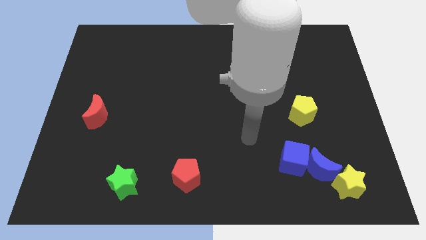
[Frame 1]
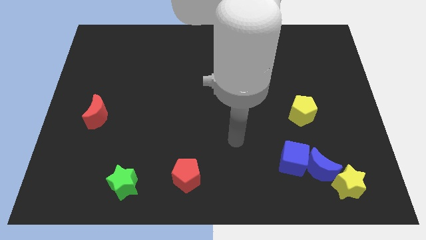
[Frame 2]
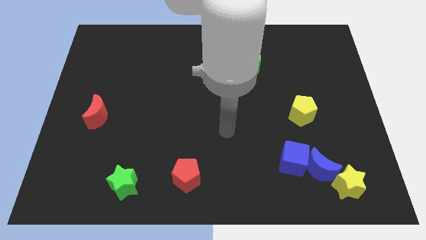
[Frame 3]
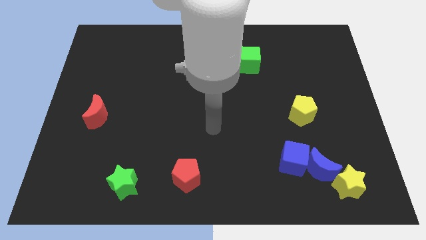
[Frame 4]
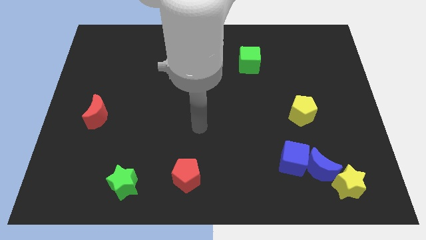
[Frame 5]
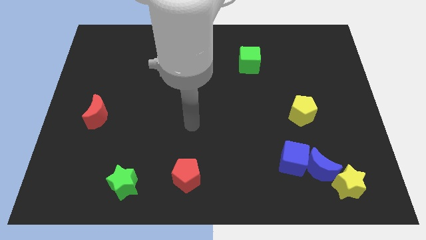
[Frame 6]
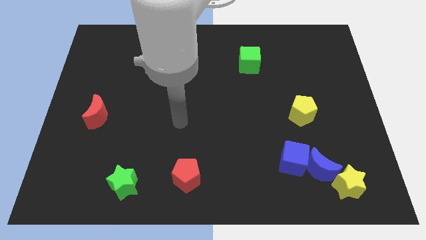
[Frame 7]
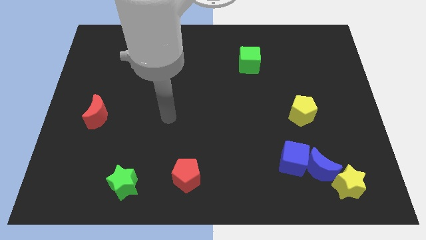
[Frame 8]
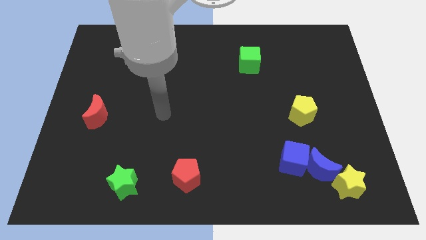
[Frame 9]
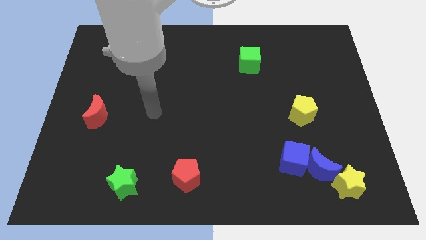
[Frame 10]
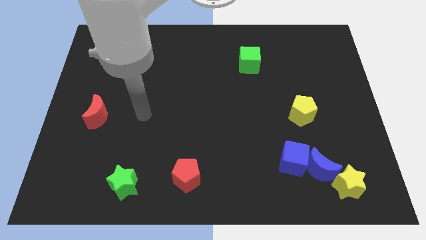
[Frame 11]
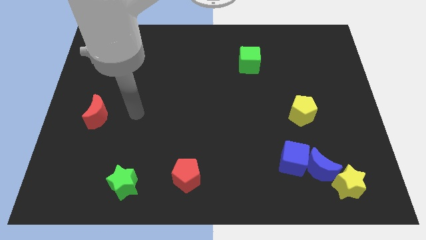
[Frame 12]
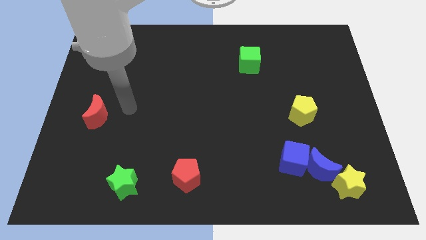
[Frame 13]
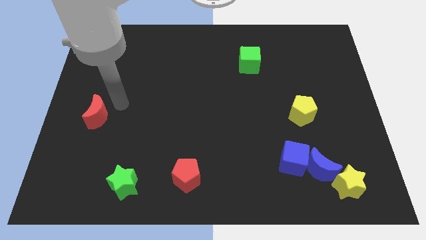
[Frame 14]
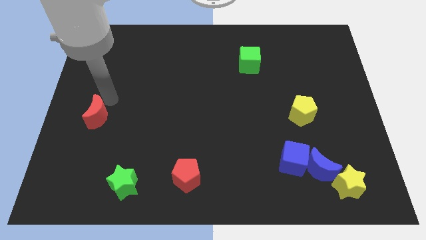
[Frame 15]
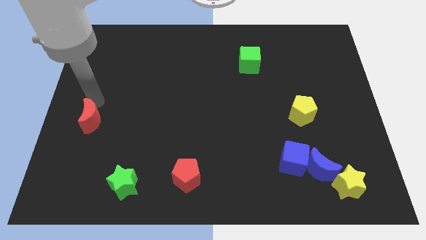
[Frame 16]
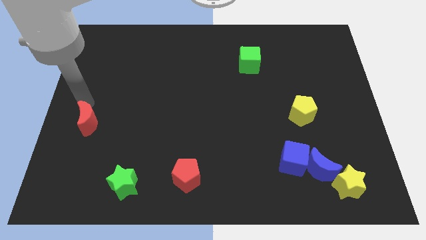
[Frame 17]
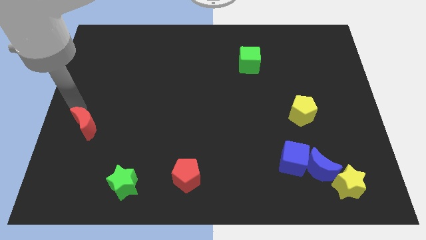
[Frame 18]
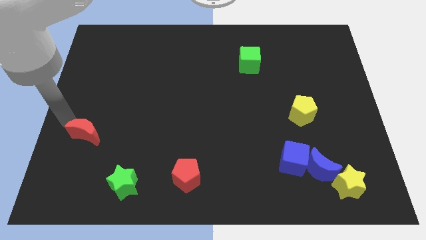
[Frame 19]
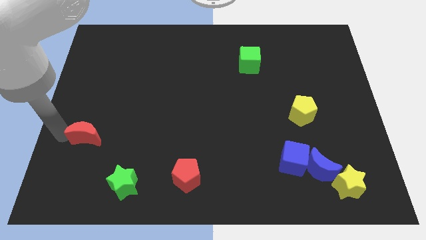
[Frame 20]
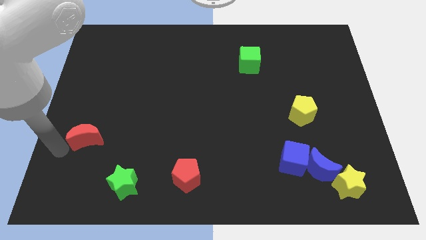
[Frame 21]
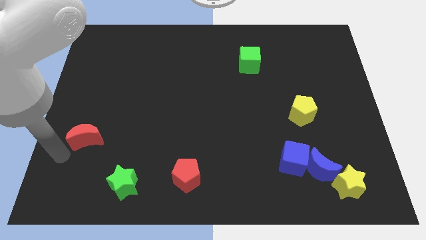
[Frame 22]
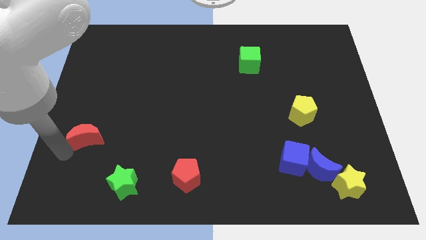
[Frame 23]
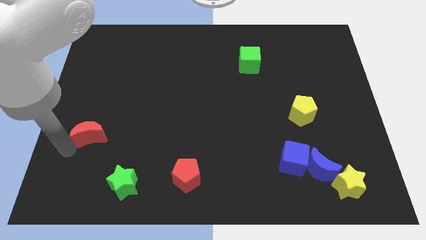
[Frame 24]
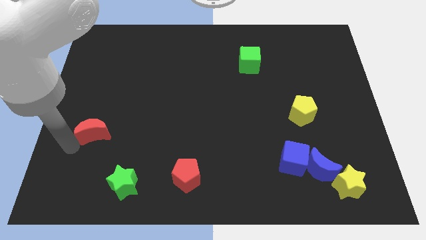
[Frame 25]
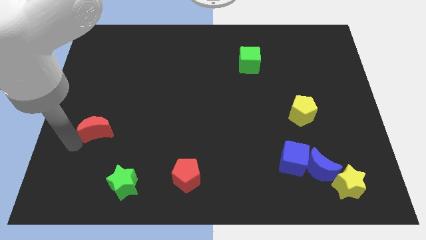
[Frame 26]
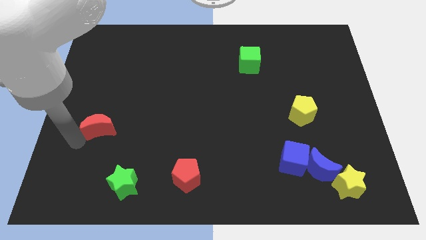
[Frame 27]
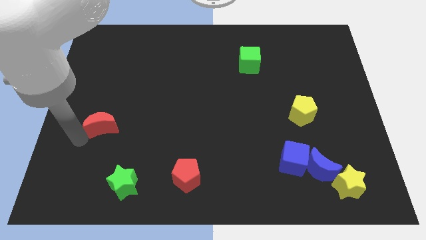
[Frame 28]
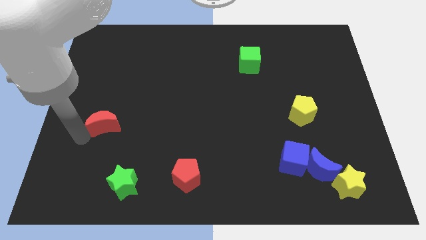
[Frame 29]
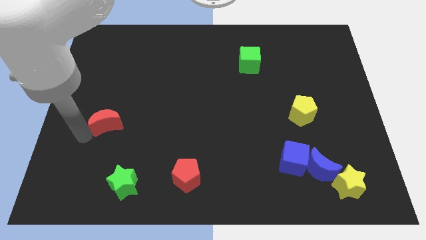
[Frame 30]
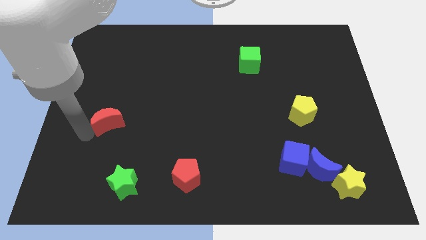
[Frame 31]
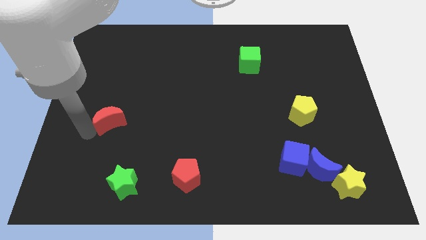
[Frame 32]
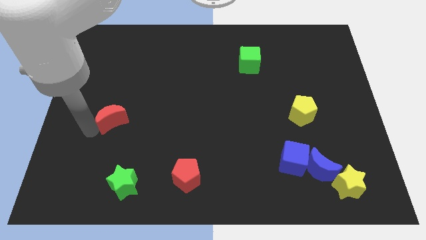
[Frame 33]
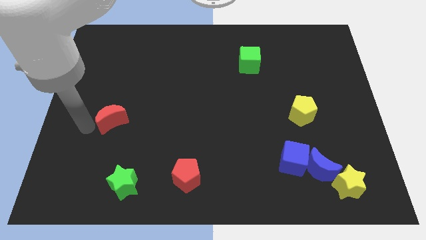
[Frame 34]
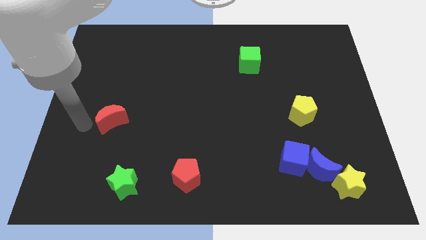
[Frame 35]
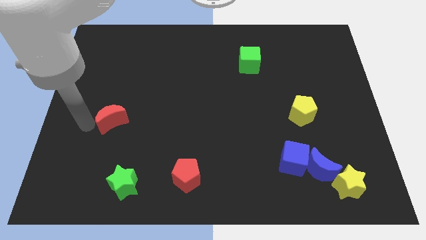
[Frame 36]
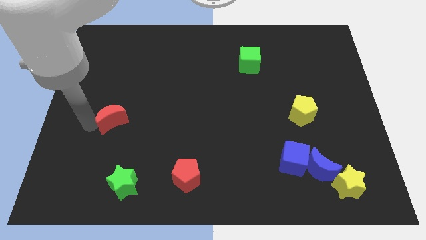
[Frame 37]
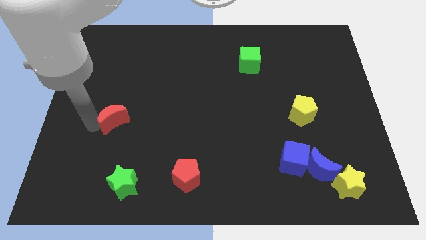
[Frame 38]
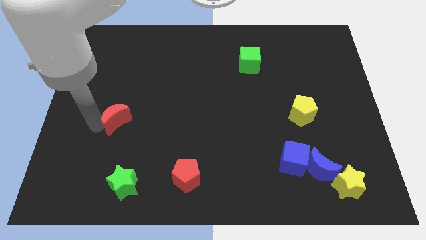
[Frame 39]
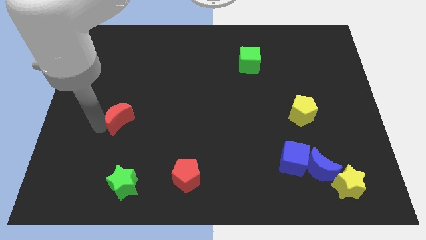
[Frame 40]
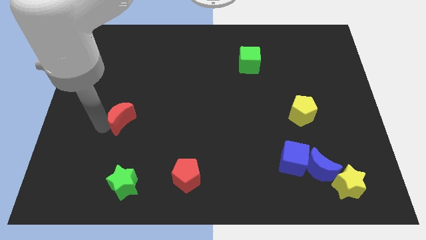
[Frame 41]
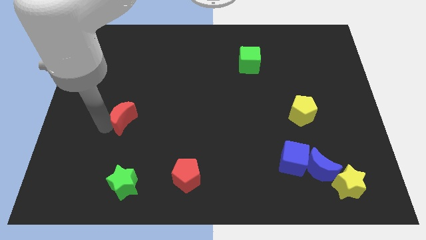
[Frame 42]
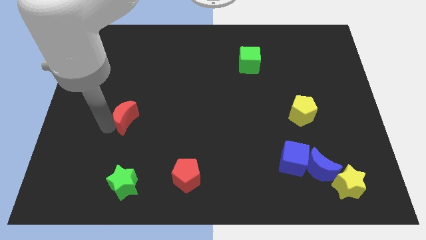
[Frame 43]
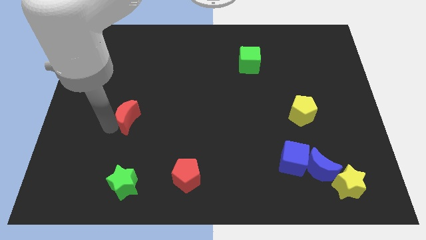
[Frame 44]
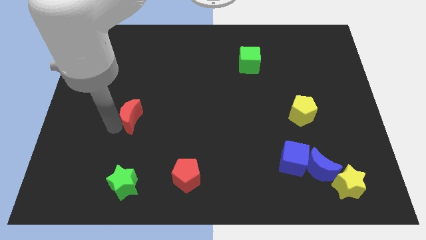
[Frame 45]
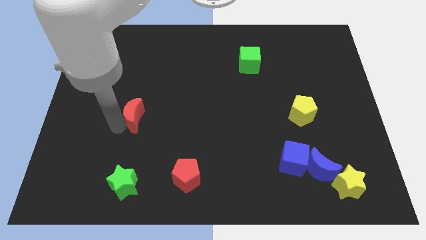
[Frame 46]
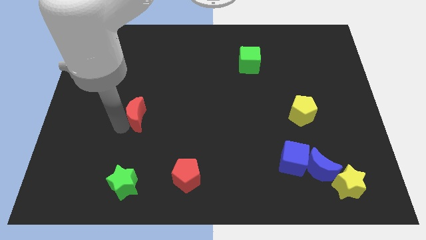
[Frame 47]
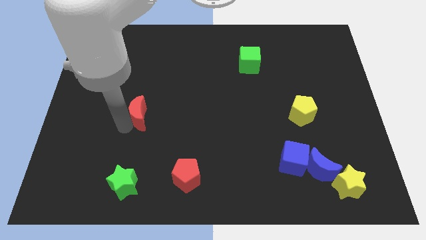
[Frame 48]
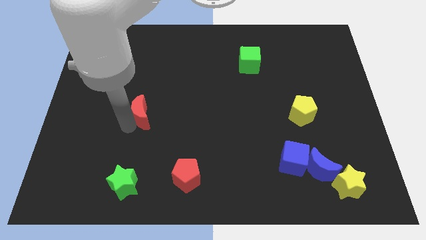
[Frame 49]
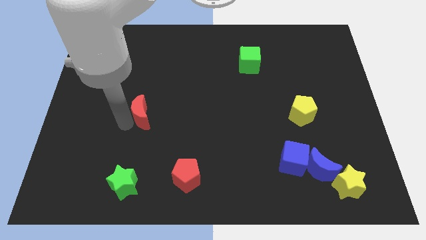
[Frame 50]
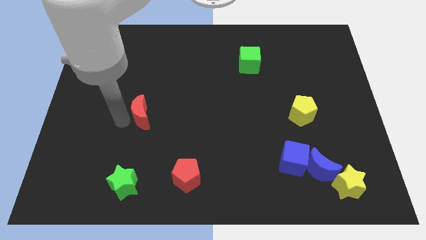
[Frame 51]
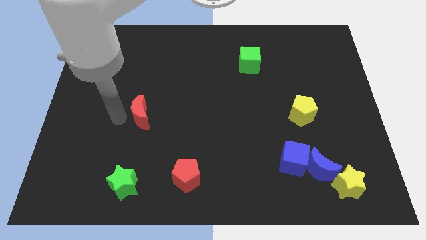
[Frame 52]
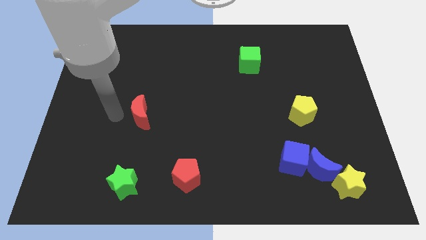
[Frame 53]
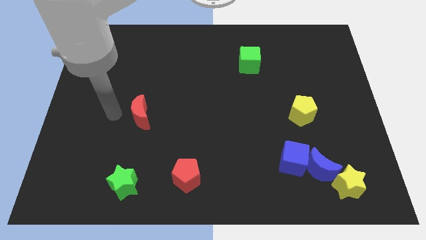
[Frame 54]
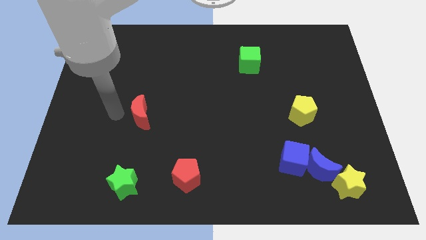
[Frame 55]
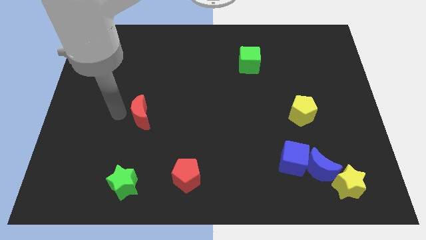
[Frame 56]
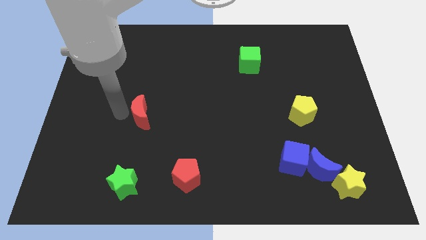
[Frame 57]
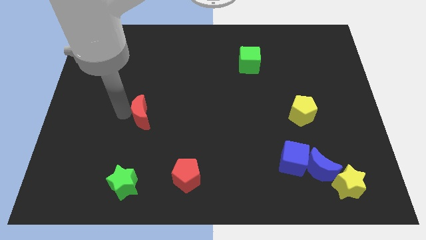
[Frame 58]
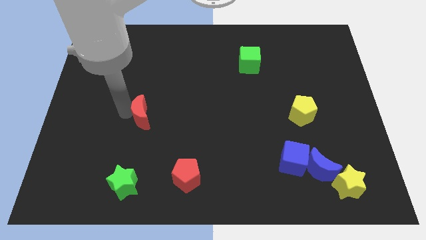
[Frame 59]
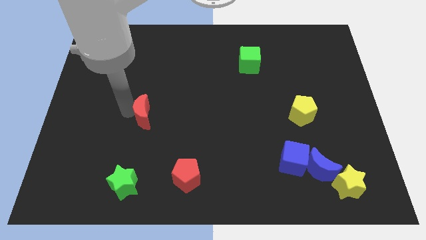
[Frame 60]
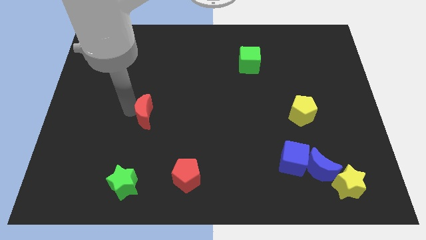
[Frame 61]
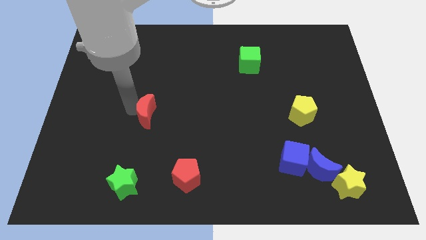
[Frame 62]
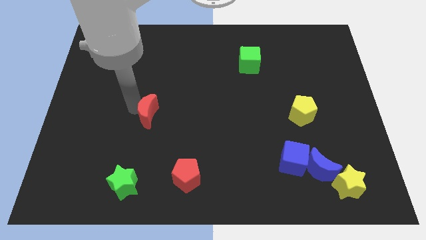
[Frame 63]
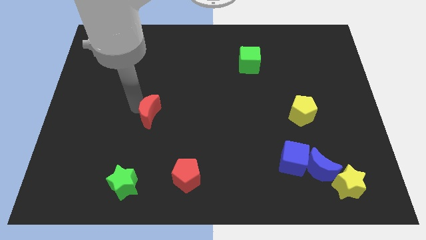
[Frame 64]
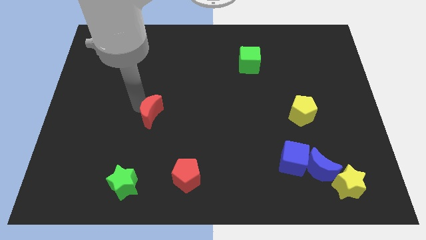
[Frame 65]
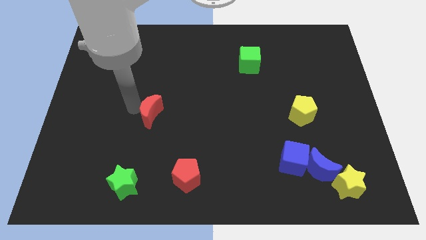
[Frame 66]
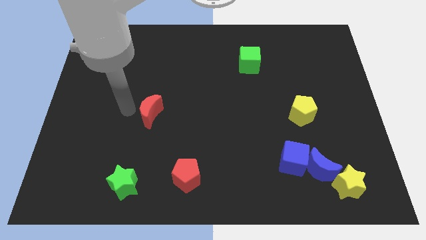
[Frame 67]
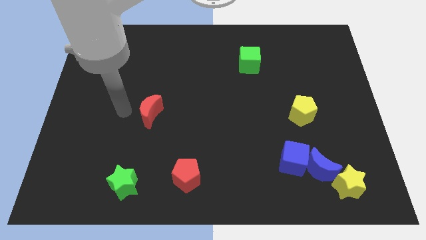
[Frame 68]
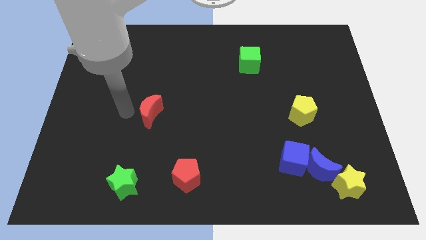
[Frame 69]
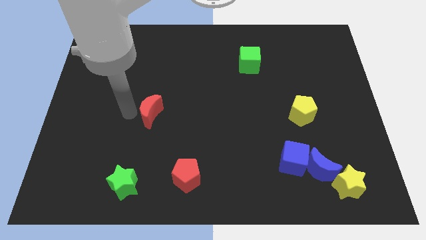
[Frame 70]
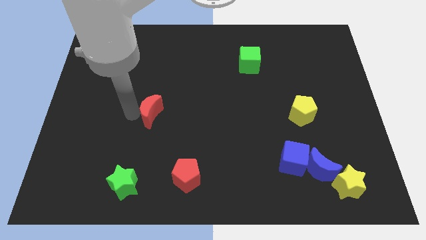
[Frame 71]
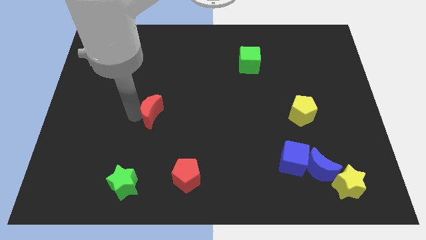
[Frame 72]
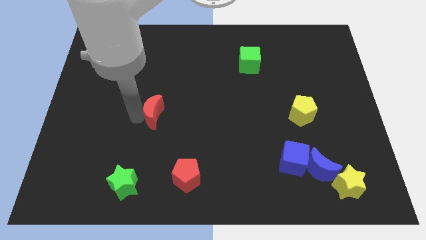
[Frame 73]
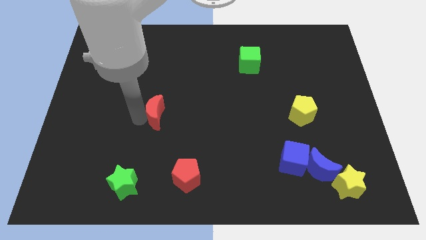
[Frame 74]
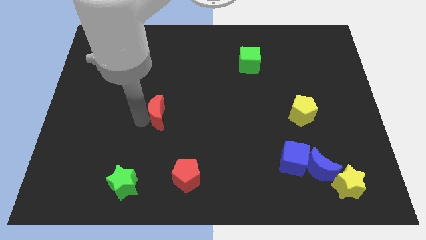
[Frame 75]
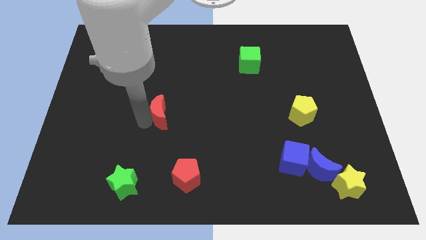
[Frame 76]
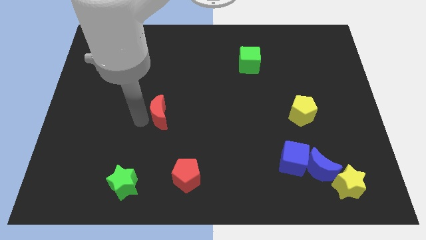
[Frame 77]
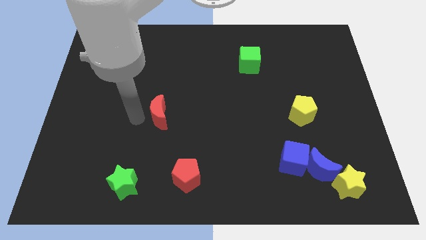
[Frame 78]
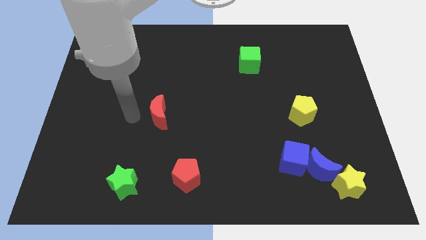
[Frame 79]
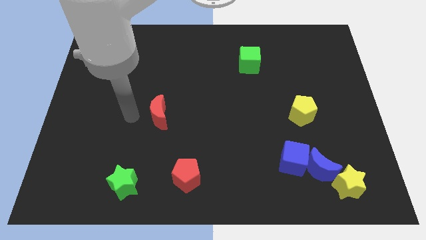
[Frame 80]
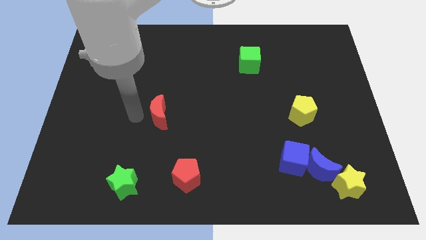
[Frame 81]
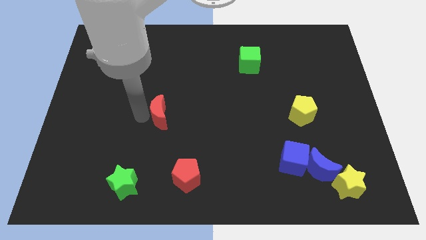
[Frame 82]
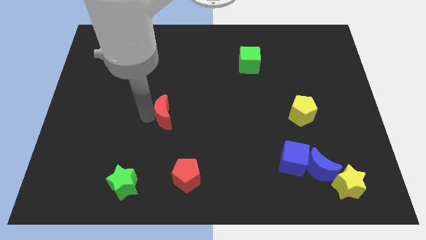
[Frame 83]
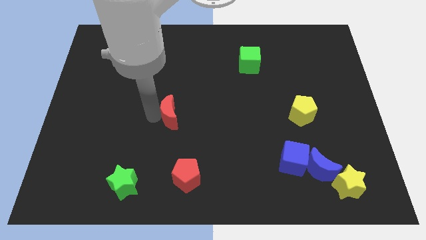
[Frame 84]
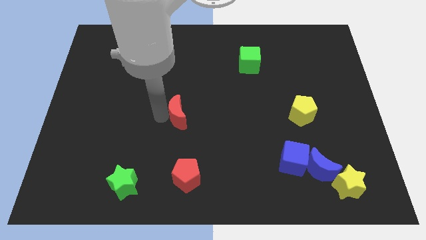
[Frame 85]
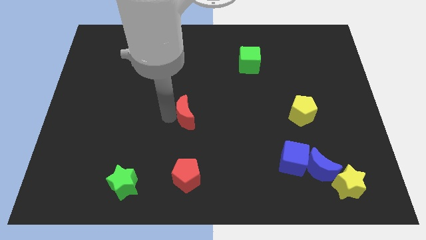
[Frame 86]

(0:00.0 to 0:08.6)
move the red moon right
